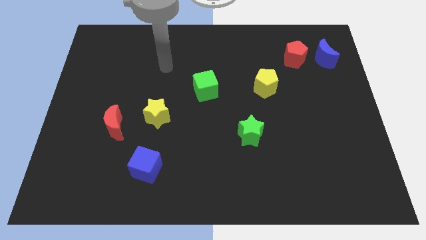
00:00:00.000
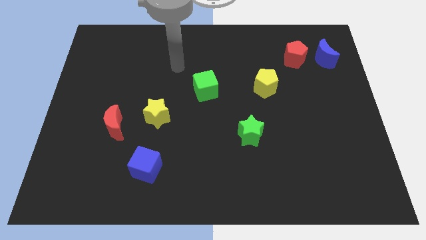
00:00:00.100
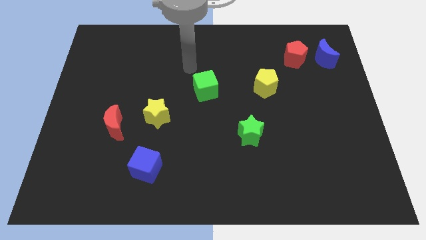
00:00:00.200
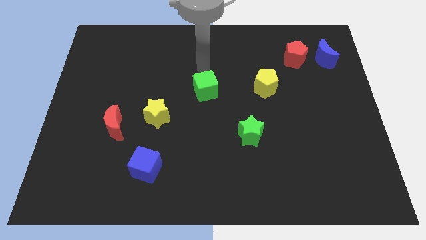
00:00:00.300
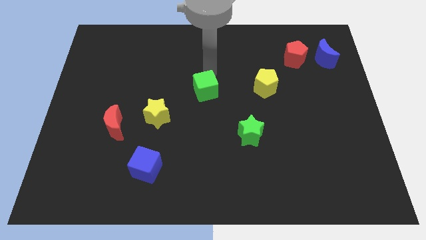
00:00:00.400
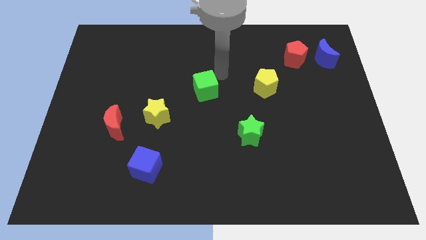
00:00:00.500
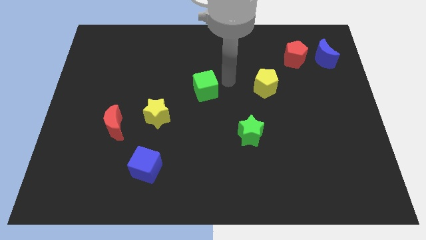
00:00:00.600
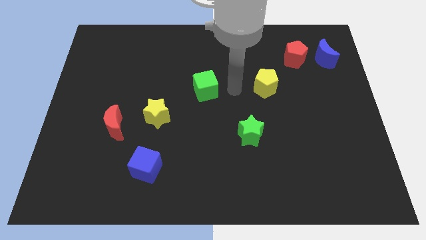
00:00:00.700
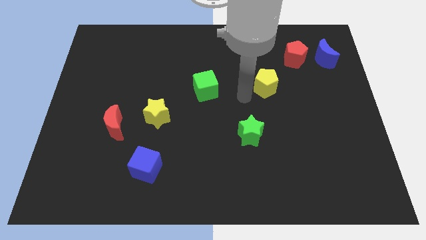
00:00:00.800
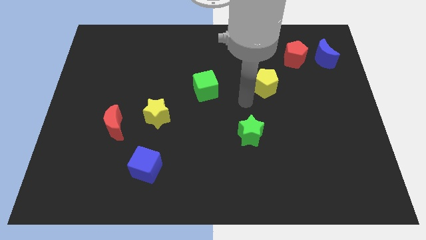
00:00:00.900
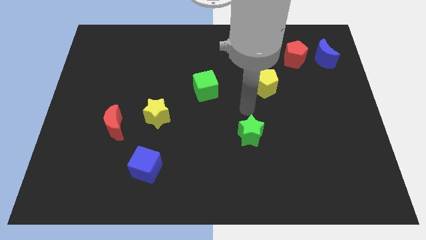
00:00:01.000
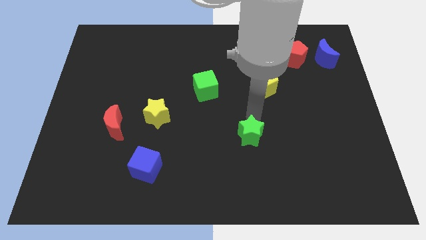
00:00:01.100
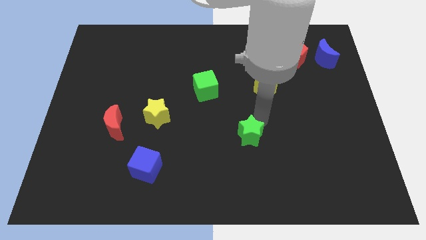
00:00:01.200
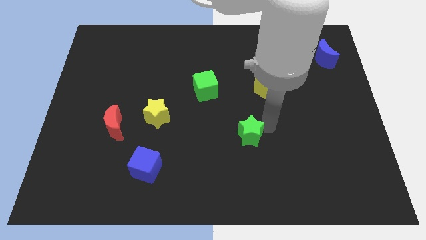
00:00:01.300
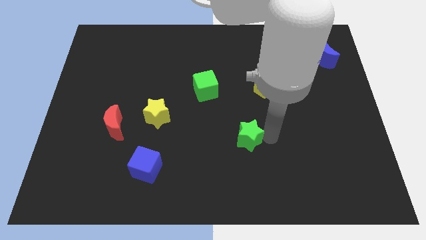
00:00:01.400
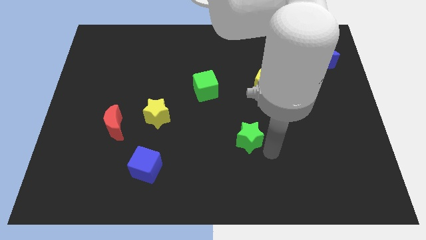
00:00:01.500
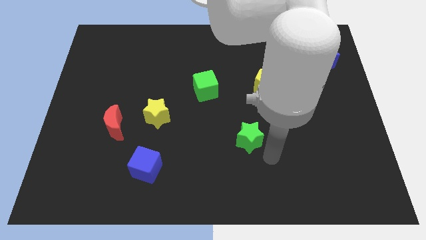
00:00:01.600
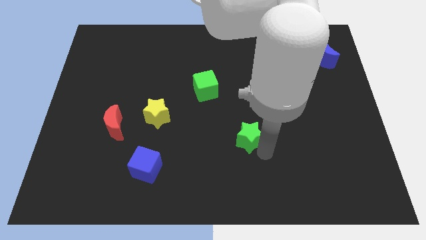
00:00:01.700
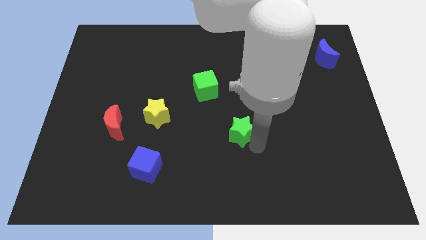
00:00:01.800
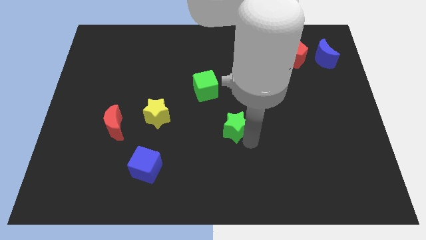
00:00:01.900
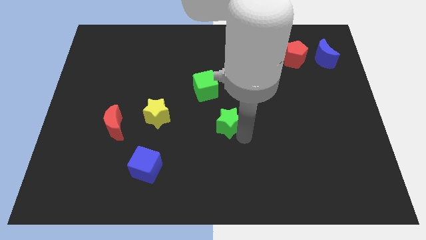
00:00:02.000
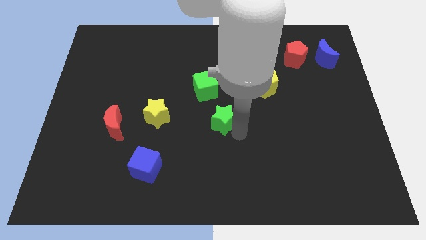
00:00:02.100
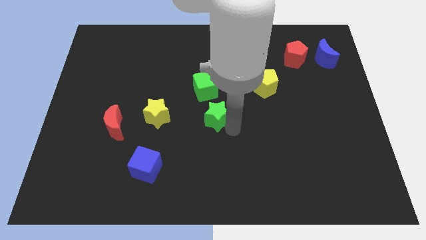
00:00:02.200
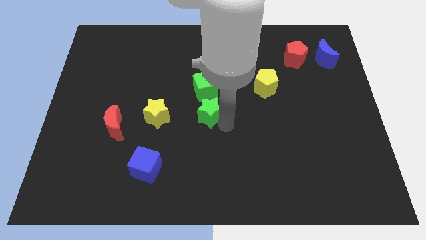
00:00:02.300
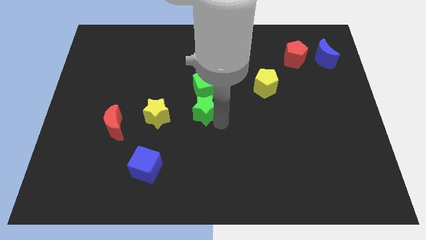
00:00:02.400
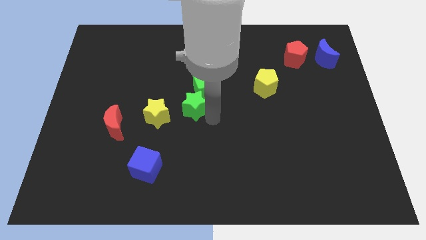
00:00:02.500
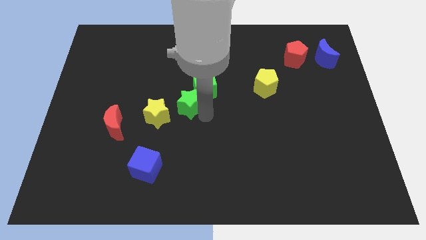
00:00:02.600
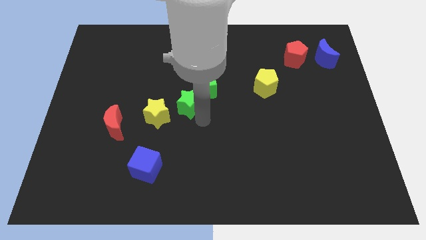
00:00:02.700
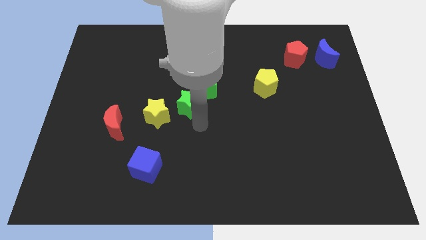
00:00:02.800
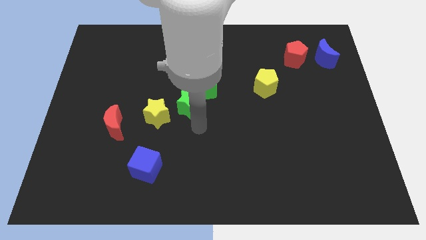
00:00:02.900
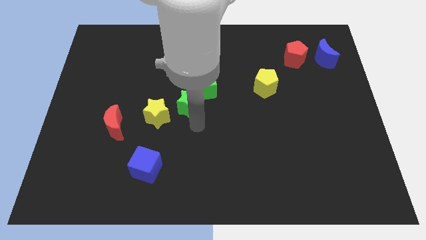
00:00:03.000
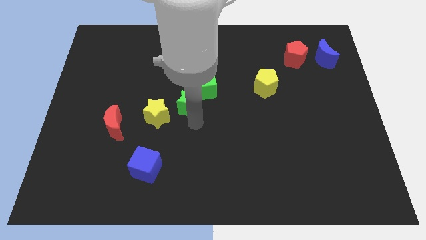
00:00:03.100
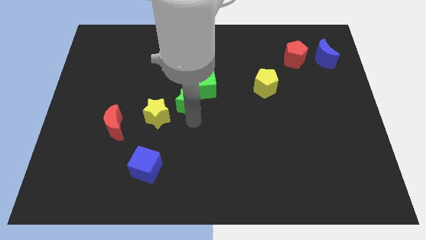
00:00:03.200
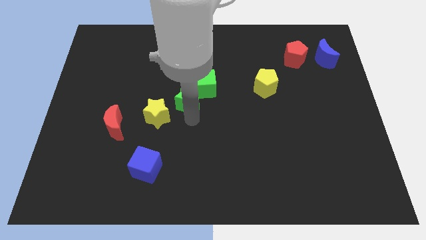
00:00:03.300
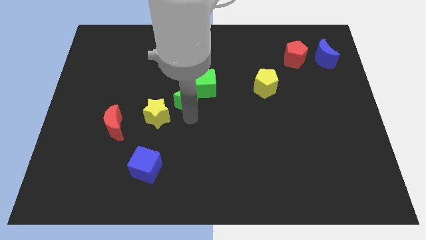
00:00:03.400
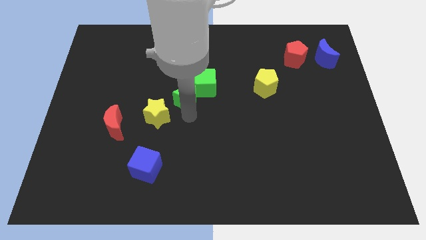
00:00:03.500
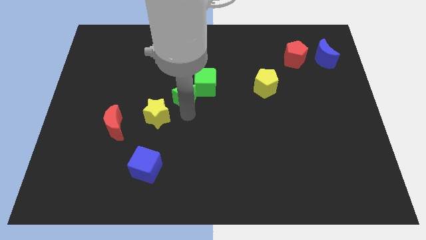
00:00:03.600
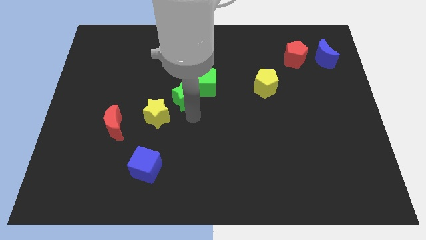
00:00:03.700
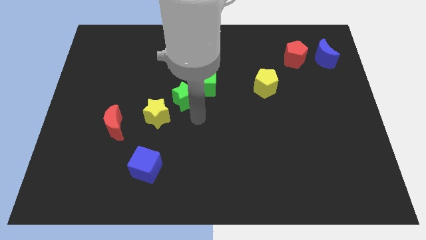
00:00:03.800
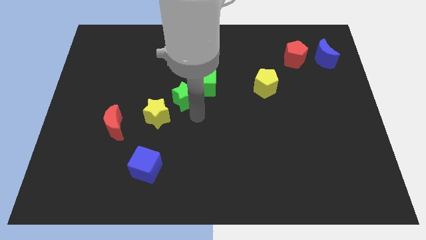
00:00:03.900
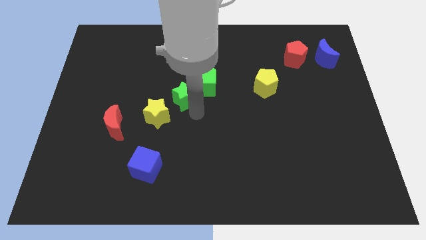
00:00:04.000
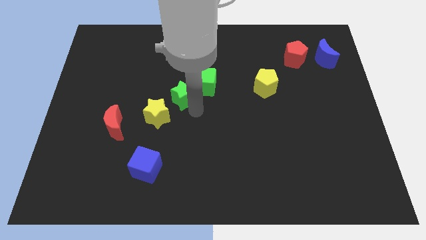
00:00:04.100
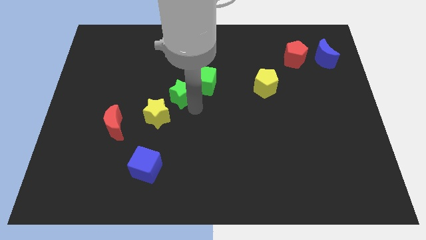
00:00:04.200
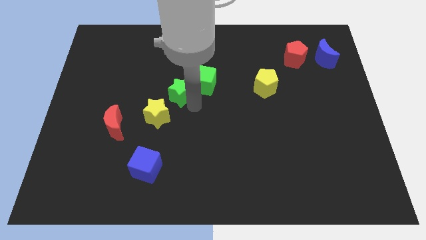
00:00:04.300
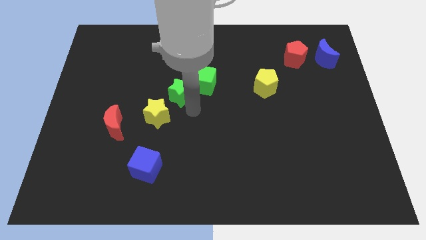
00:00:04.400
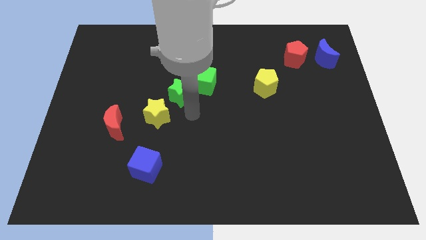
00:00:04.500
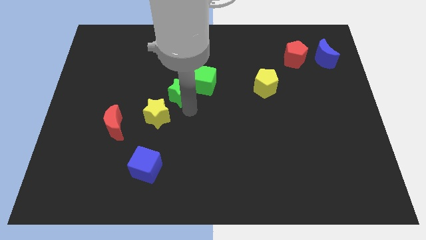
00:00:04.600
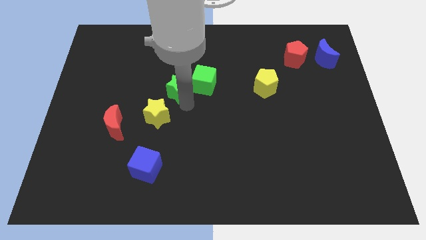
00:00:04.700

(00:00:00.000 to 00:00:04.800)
slide the green star upwards and then to the left

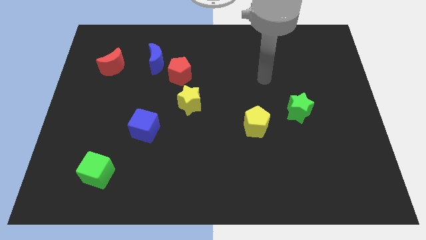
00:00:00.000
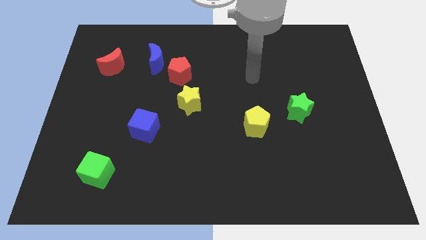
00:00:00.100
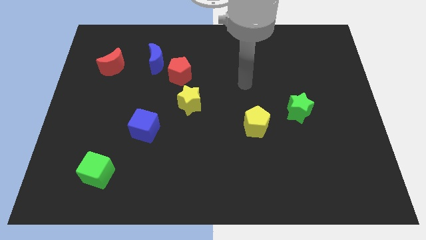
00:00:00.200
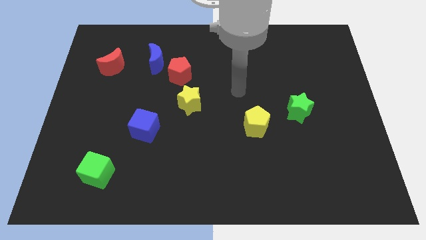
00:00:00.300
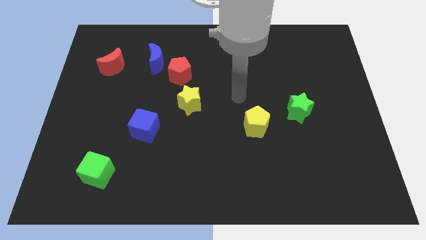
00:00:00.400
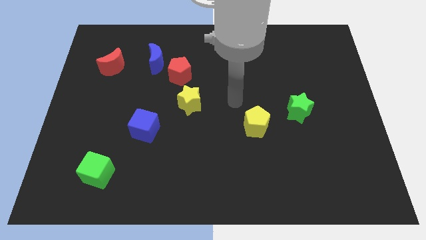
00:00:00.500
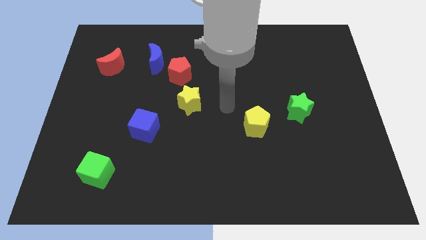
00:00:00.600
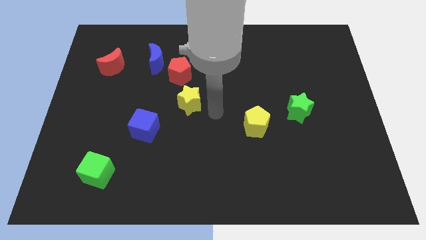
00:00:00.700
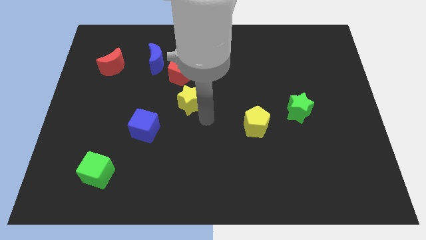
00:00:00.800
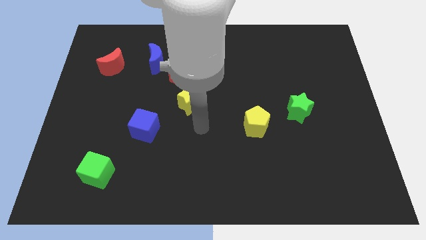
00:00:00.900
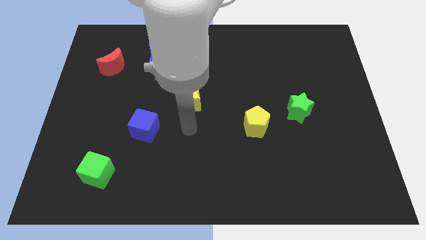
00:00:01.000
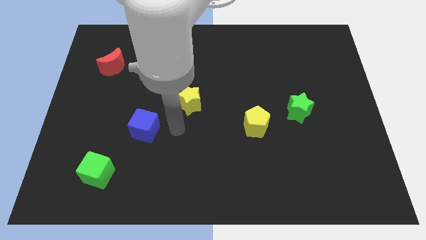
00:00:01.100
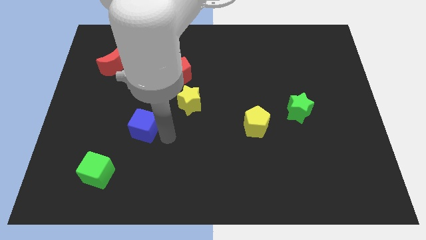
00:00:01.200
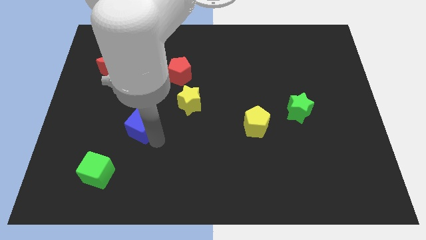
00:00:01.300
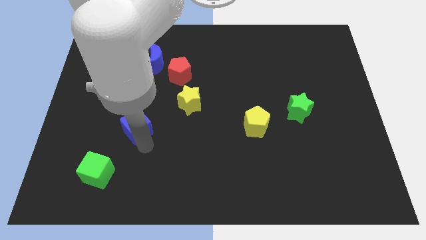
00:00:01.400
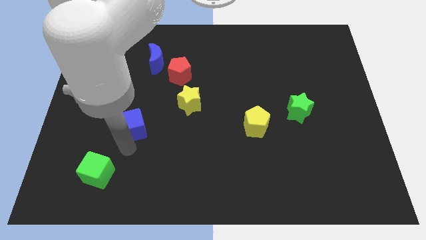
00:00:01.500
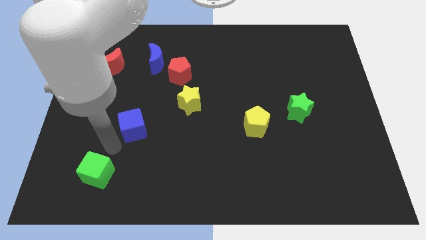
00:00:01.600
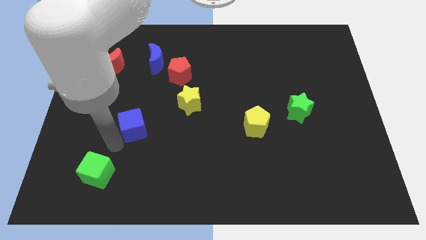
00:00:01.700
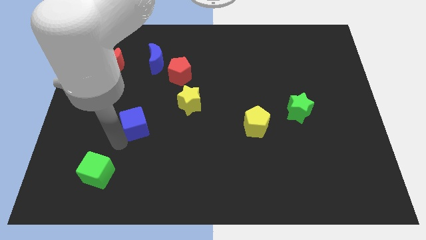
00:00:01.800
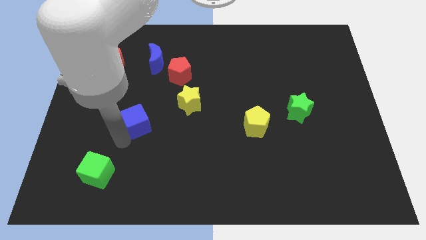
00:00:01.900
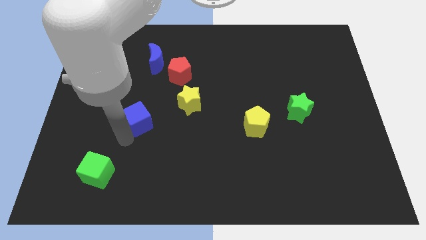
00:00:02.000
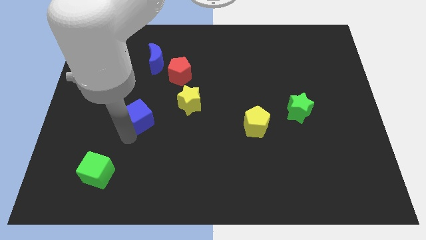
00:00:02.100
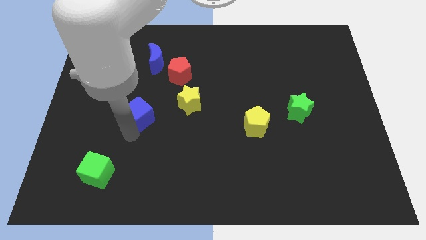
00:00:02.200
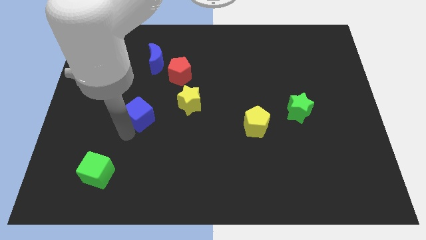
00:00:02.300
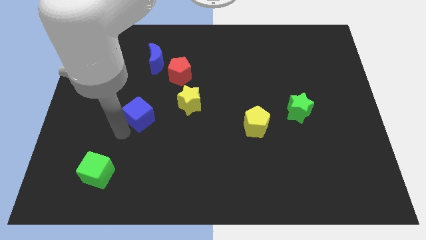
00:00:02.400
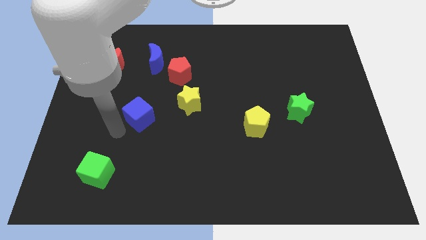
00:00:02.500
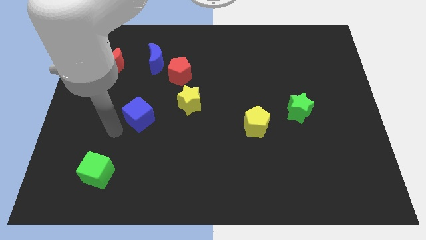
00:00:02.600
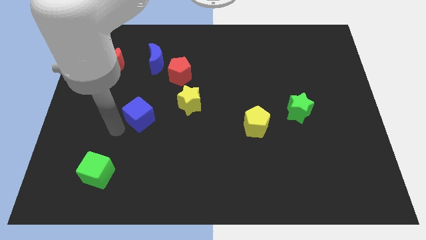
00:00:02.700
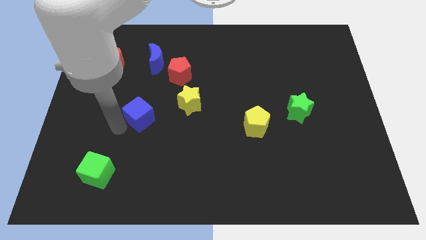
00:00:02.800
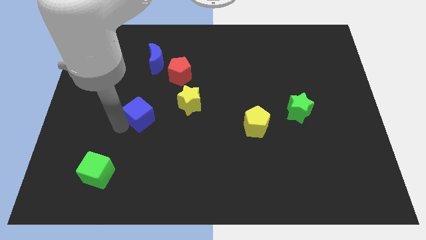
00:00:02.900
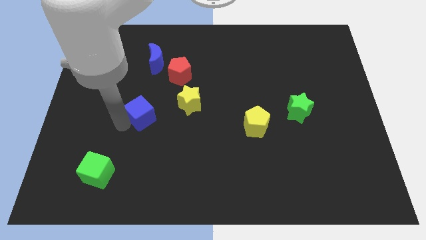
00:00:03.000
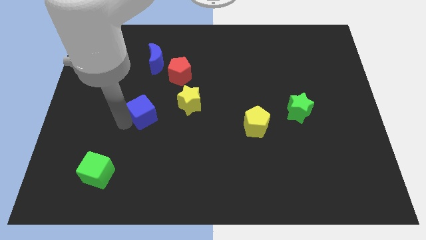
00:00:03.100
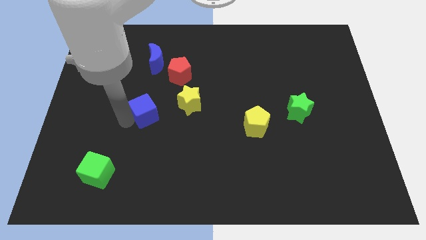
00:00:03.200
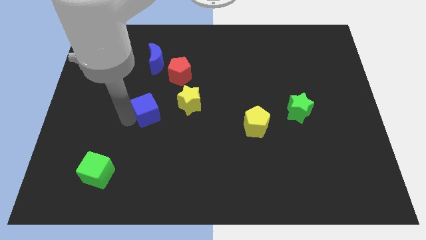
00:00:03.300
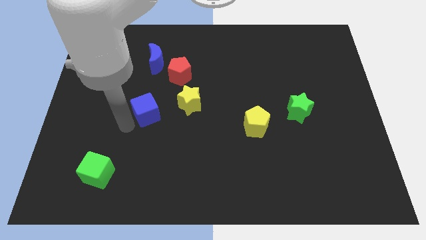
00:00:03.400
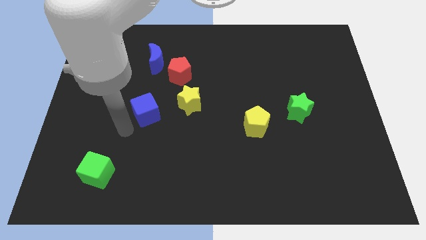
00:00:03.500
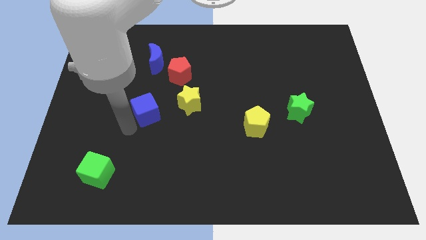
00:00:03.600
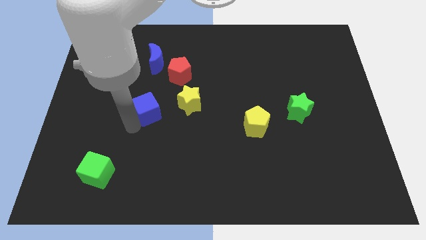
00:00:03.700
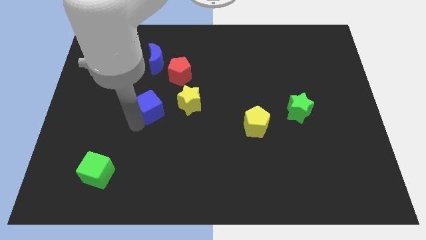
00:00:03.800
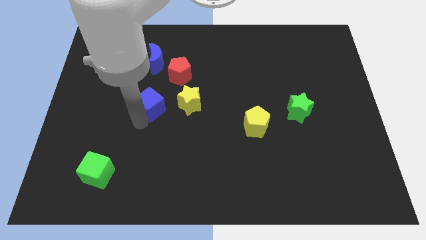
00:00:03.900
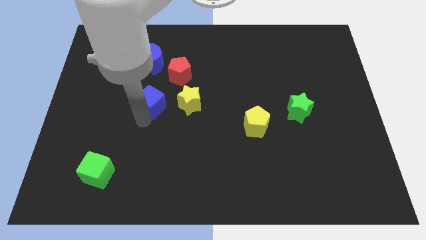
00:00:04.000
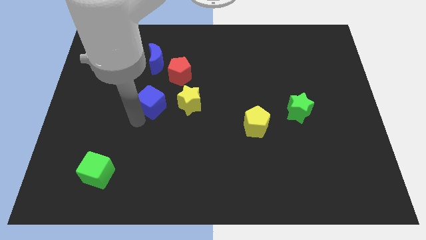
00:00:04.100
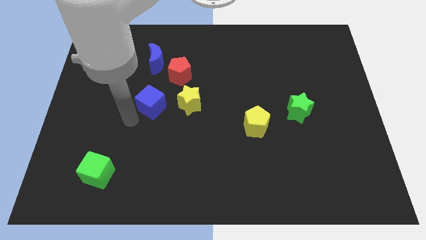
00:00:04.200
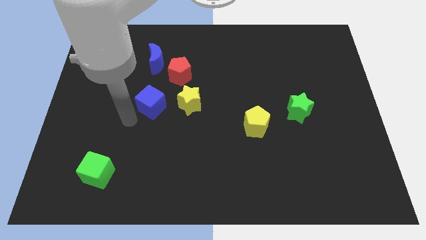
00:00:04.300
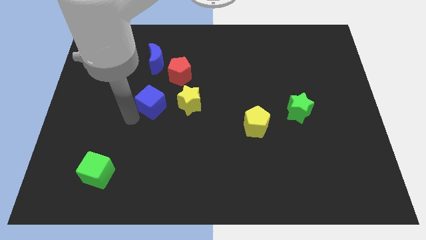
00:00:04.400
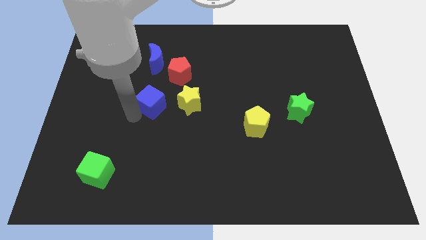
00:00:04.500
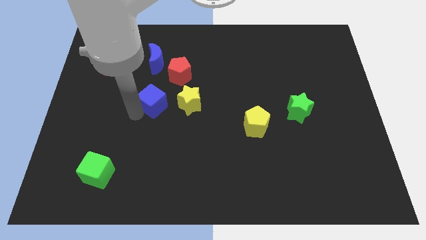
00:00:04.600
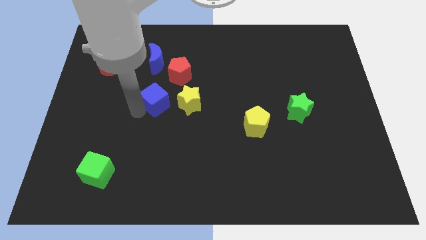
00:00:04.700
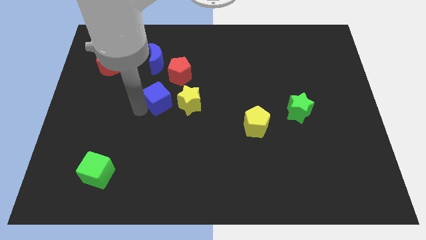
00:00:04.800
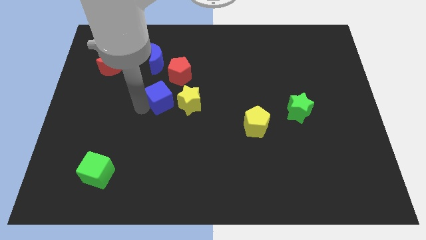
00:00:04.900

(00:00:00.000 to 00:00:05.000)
move the blue cube slightly diagonally upwards and to the right
